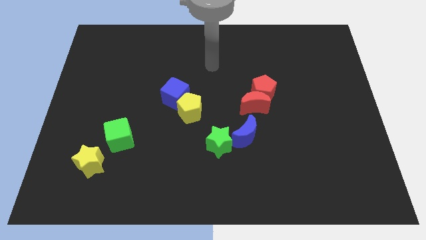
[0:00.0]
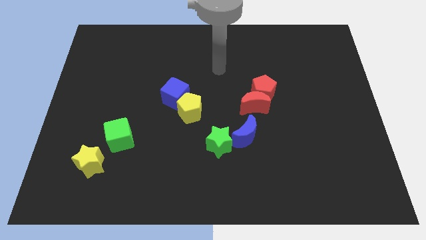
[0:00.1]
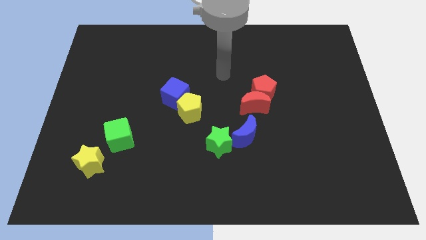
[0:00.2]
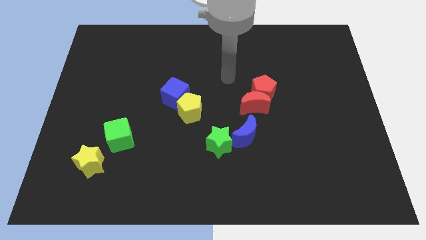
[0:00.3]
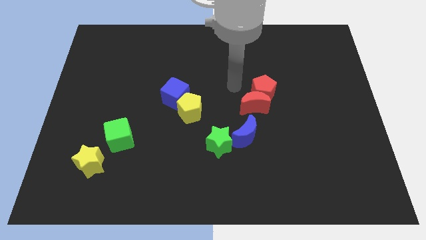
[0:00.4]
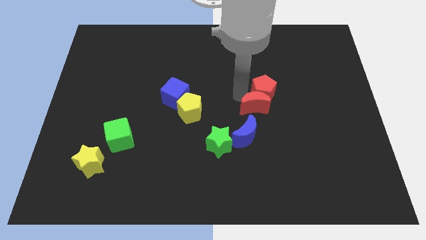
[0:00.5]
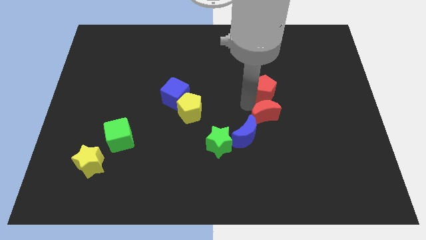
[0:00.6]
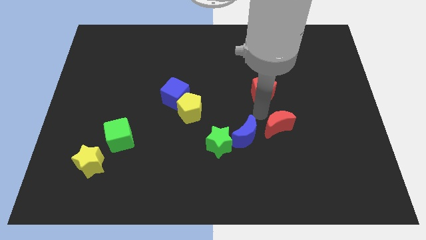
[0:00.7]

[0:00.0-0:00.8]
separate the red pentagon from the red moon

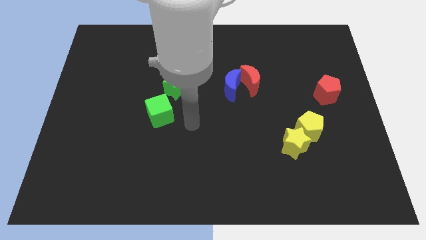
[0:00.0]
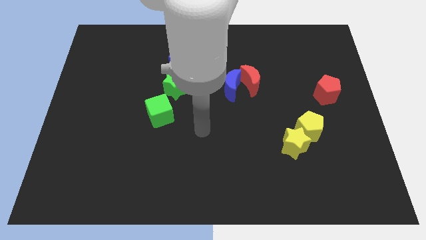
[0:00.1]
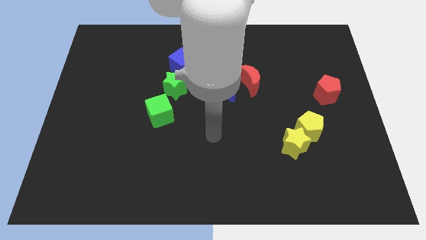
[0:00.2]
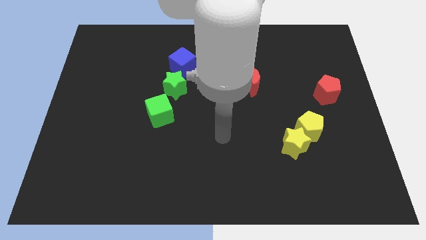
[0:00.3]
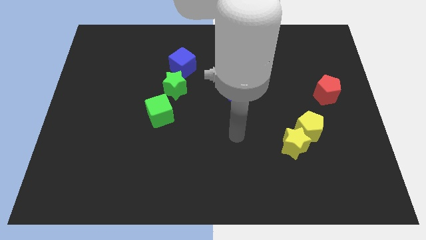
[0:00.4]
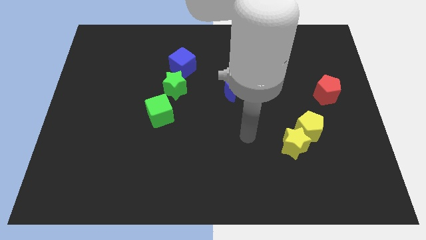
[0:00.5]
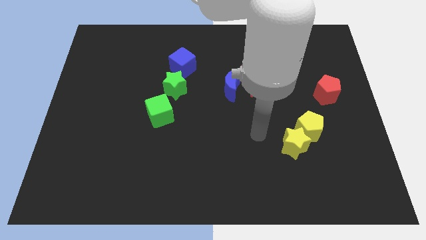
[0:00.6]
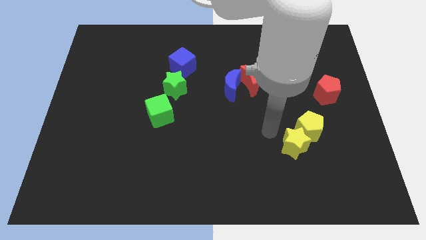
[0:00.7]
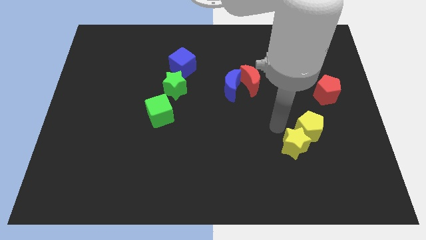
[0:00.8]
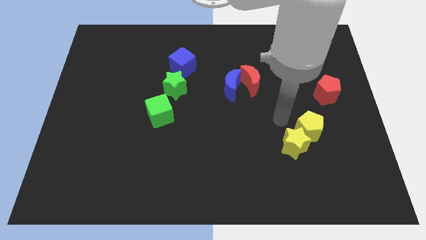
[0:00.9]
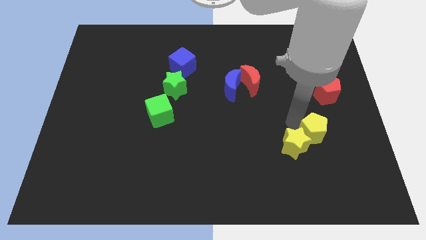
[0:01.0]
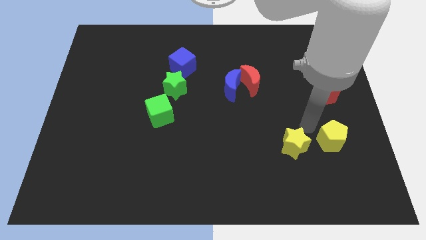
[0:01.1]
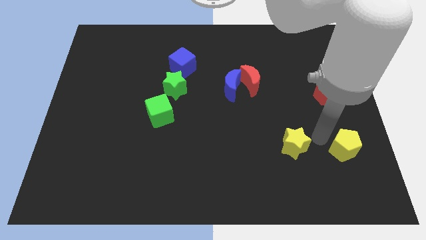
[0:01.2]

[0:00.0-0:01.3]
separate the yellow star from the yellow pentagon

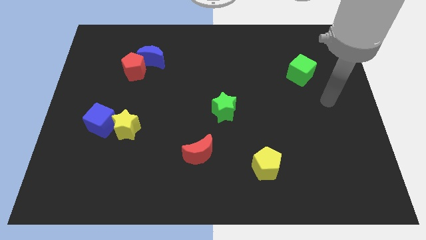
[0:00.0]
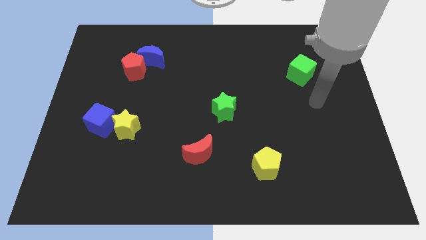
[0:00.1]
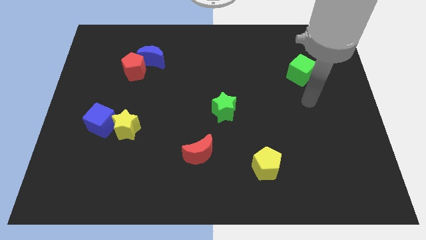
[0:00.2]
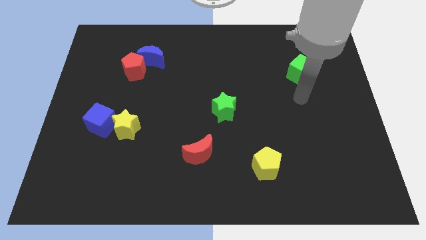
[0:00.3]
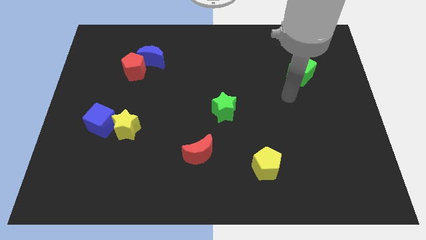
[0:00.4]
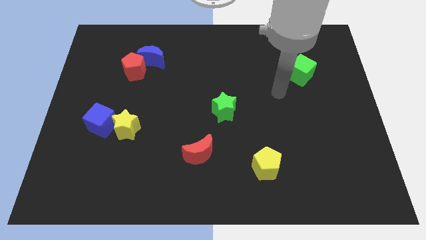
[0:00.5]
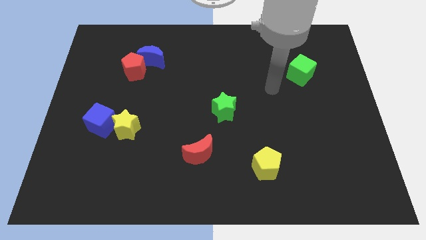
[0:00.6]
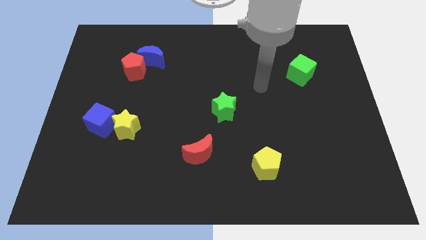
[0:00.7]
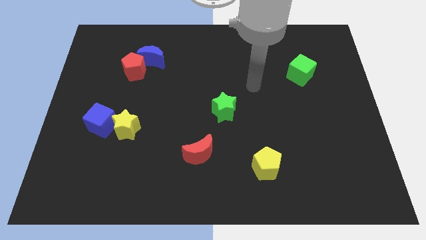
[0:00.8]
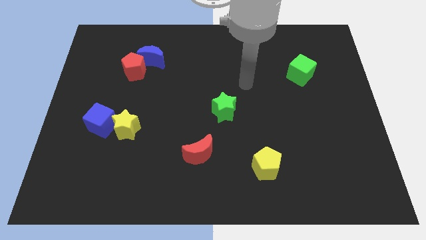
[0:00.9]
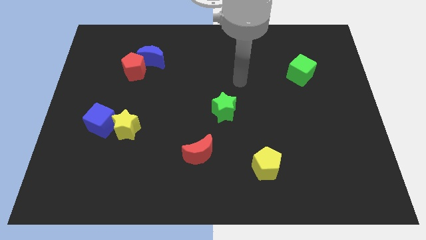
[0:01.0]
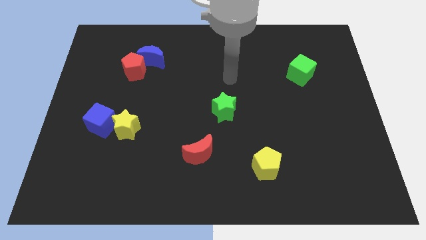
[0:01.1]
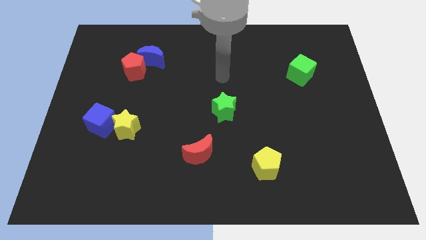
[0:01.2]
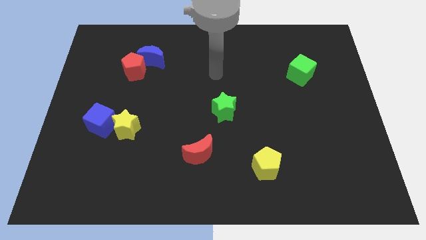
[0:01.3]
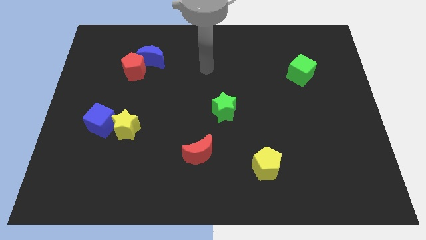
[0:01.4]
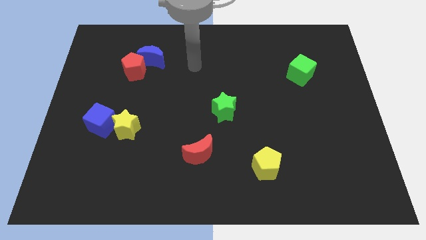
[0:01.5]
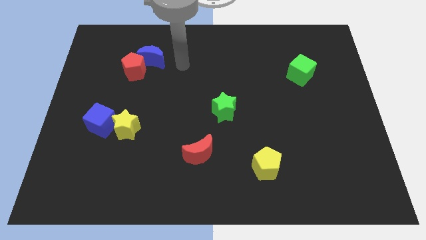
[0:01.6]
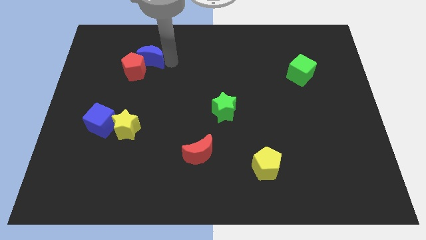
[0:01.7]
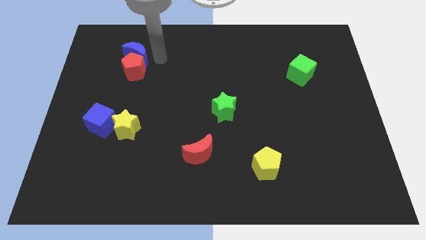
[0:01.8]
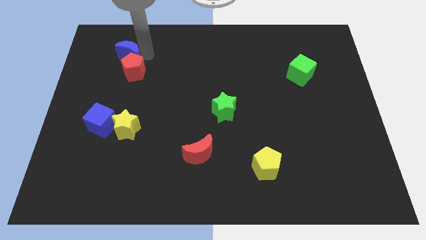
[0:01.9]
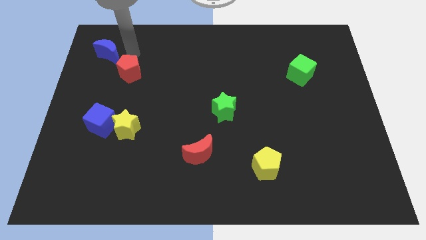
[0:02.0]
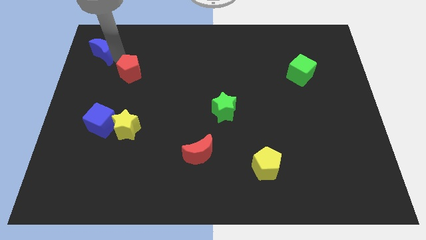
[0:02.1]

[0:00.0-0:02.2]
pull the red pentagon apart from the blue moon

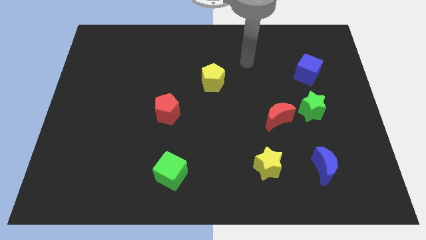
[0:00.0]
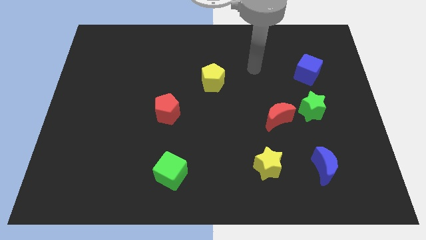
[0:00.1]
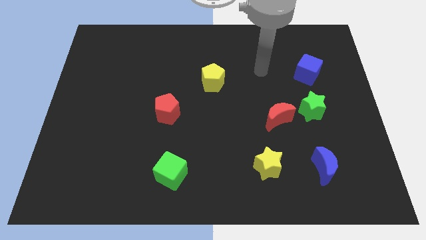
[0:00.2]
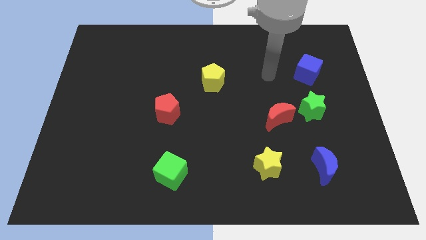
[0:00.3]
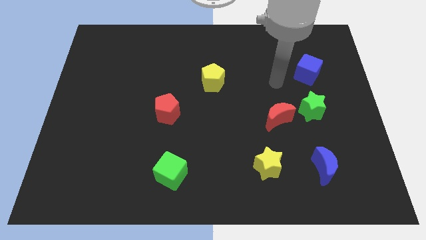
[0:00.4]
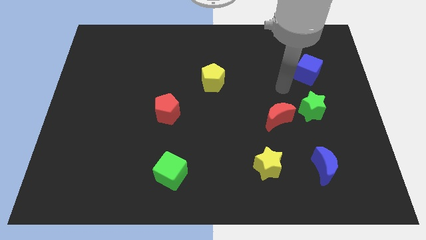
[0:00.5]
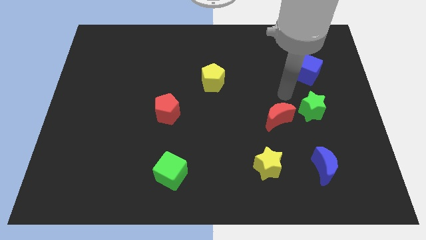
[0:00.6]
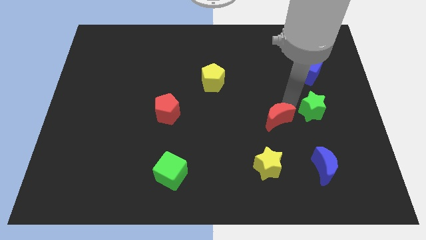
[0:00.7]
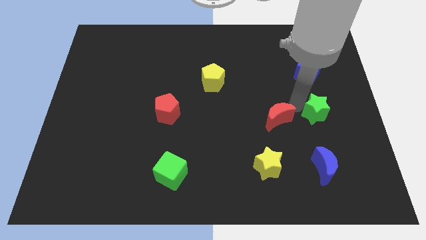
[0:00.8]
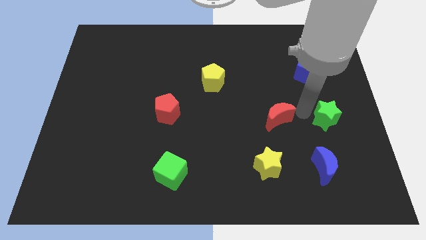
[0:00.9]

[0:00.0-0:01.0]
move the red moon away from the green star

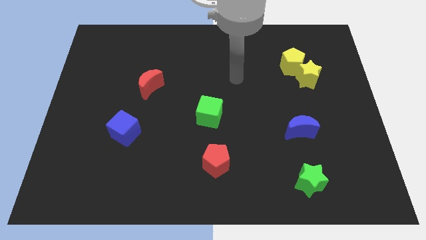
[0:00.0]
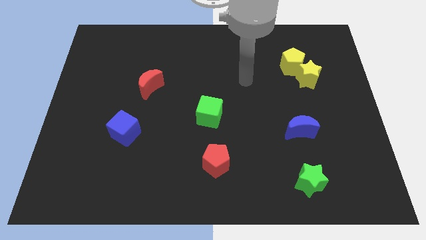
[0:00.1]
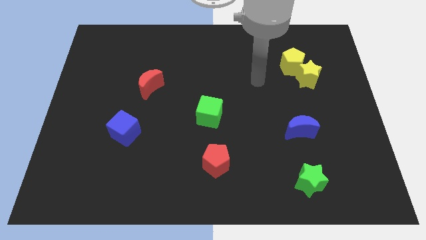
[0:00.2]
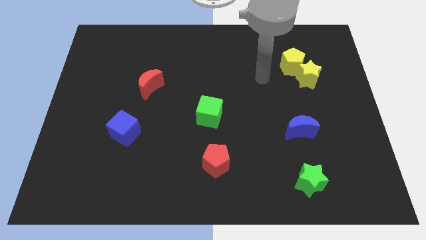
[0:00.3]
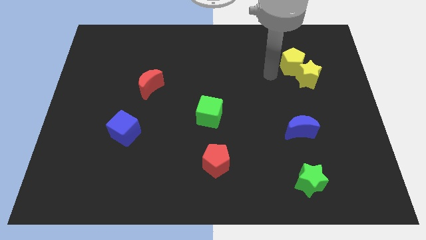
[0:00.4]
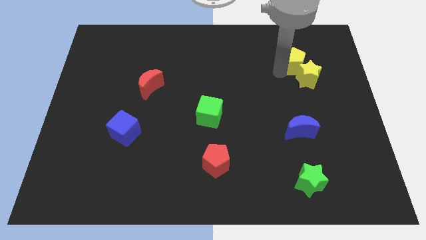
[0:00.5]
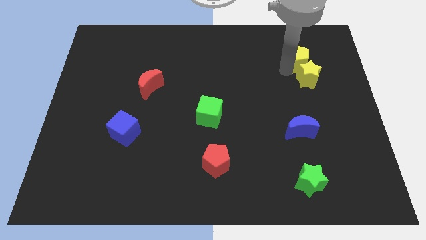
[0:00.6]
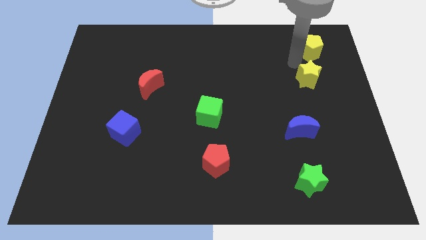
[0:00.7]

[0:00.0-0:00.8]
pull the yellow star apart from the yellow pentagon

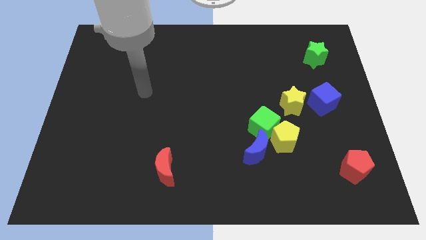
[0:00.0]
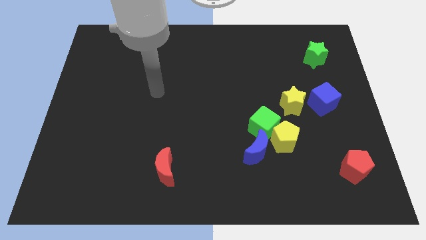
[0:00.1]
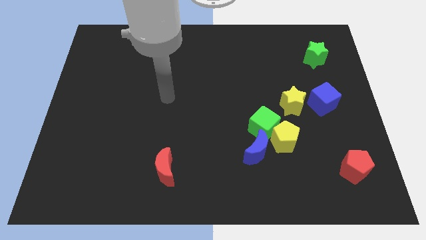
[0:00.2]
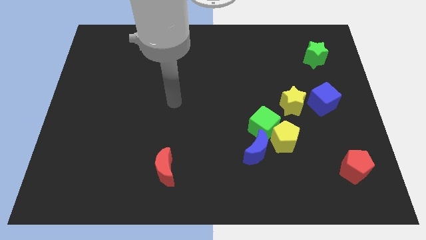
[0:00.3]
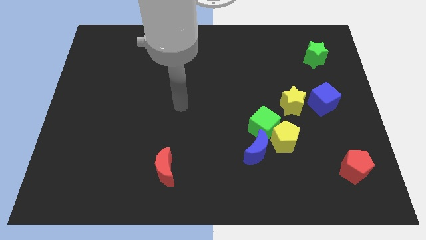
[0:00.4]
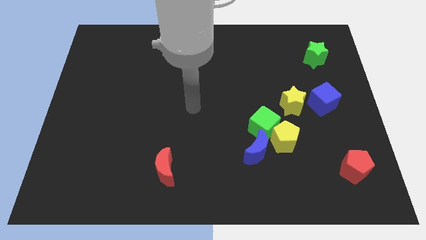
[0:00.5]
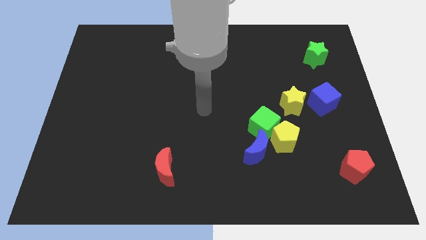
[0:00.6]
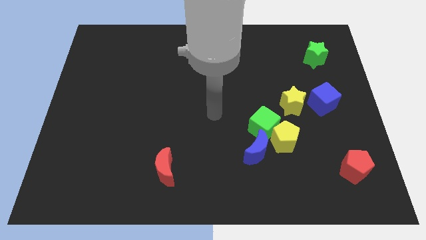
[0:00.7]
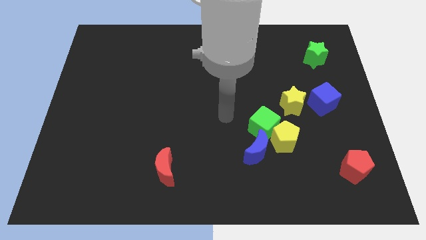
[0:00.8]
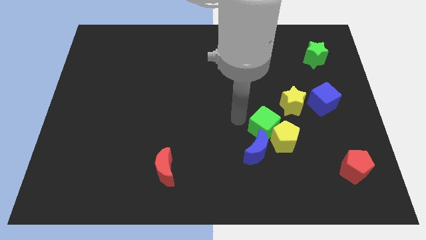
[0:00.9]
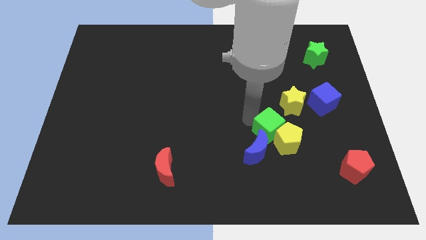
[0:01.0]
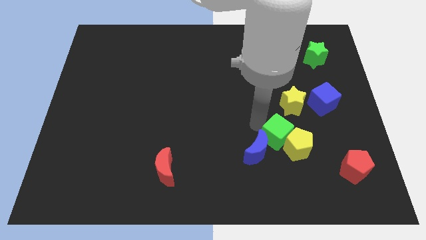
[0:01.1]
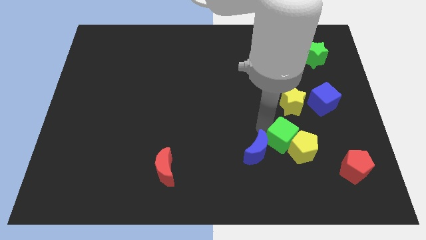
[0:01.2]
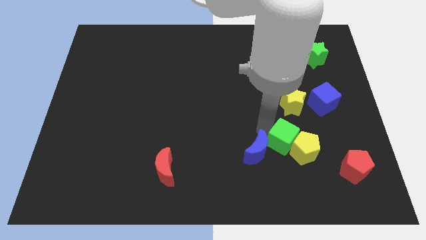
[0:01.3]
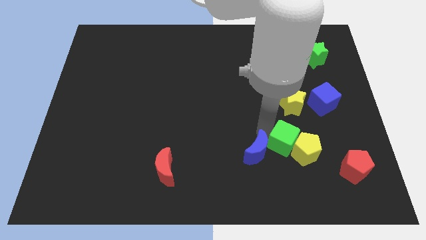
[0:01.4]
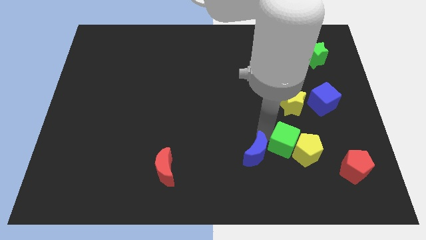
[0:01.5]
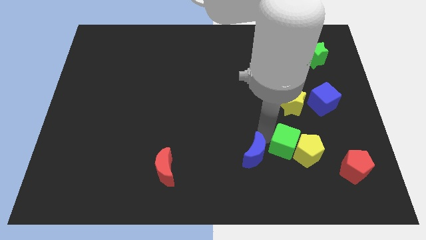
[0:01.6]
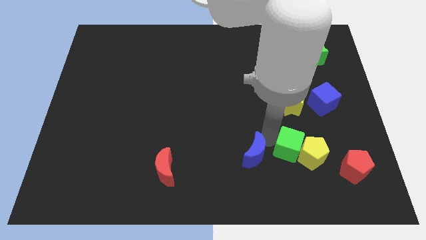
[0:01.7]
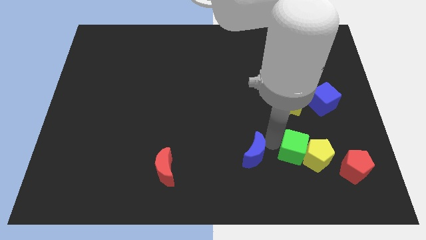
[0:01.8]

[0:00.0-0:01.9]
separate the blue moon from the yellow pentagon and green cube

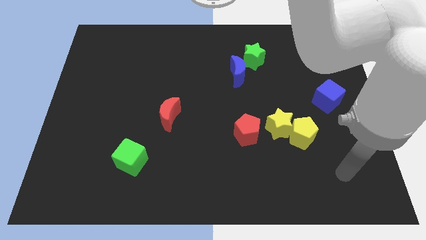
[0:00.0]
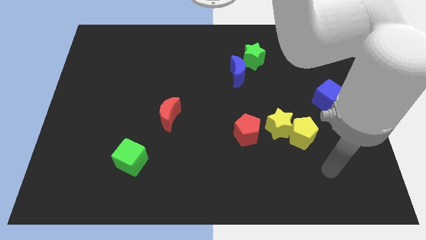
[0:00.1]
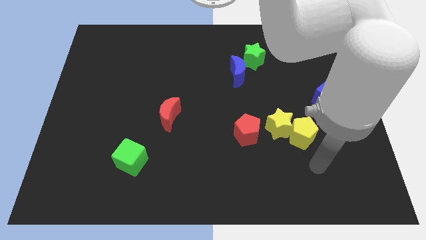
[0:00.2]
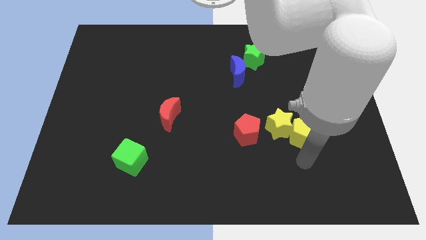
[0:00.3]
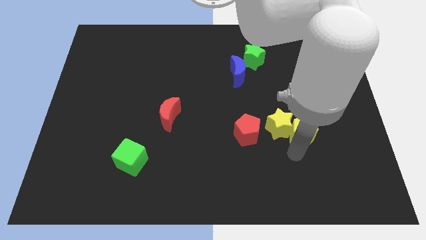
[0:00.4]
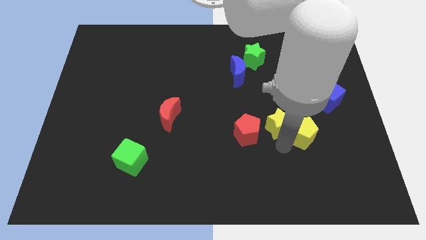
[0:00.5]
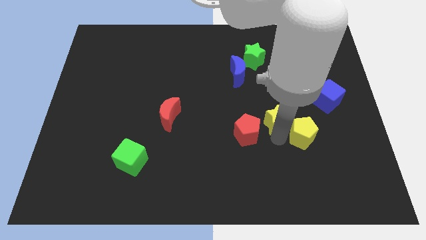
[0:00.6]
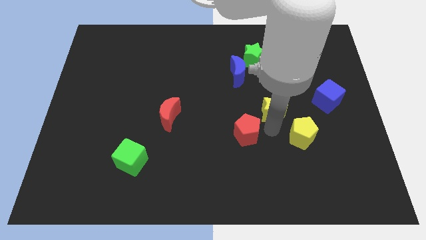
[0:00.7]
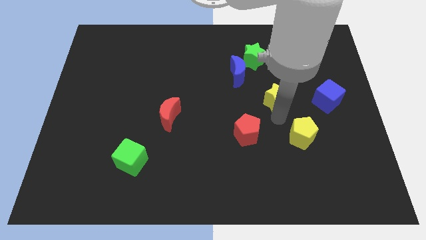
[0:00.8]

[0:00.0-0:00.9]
move the yellow pentagon away from the yellow star

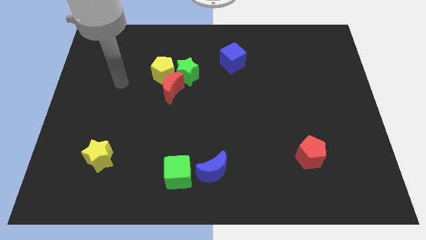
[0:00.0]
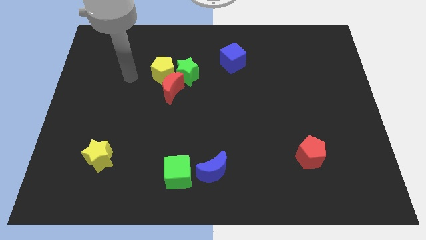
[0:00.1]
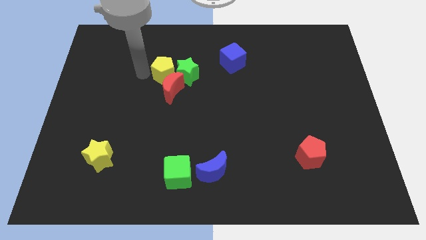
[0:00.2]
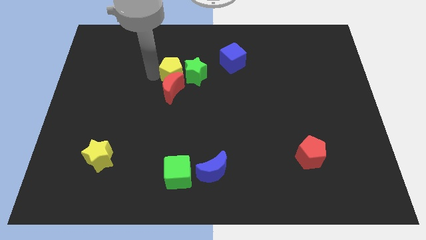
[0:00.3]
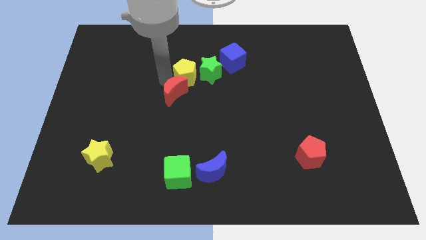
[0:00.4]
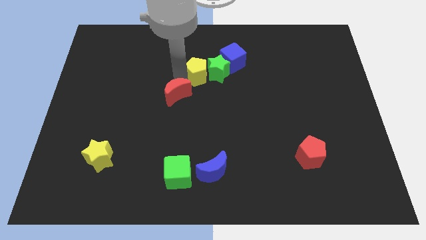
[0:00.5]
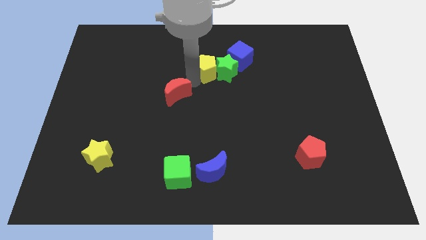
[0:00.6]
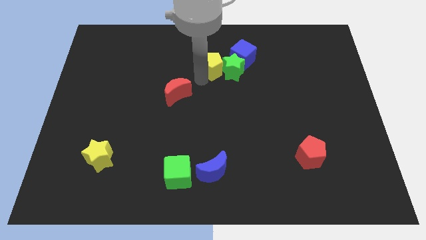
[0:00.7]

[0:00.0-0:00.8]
move the green star away from the yellow pentagon and red moon
